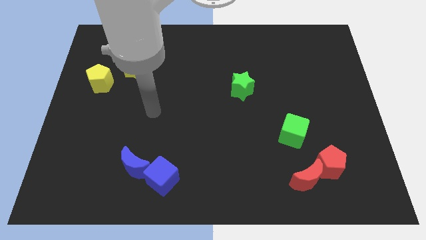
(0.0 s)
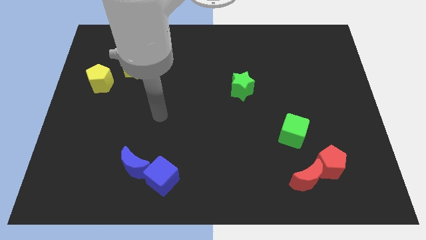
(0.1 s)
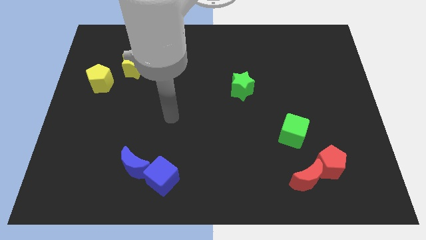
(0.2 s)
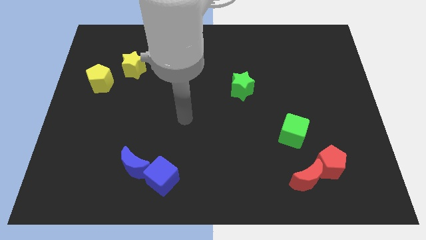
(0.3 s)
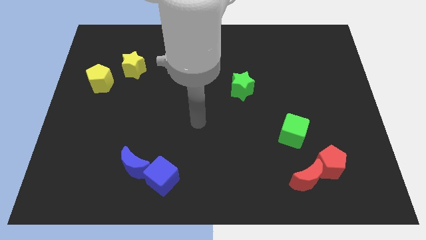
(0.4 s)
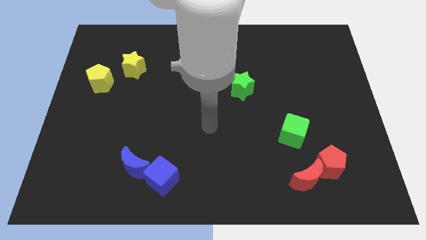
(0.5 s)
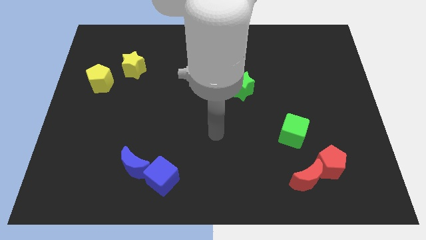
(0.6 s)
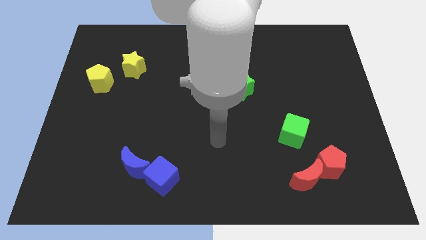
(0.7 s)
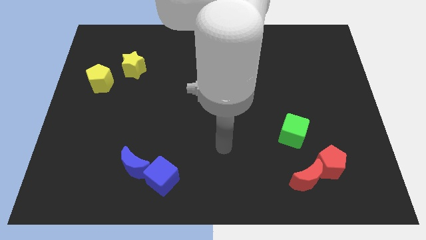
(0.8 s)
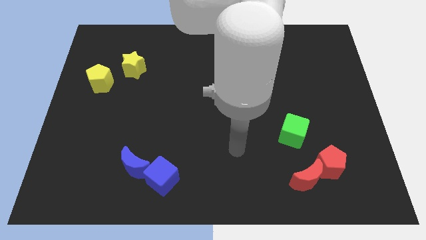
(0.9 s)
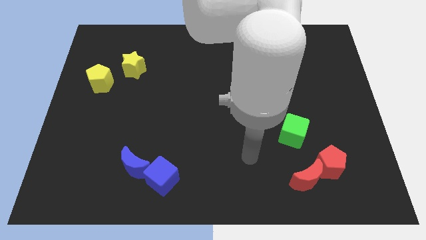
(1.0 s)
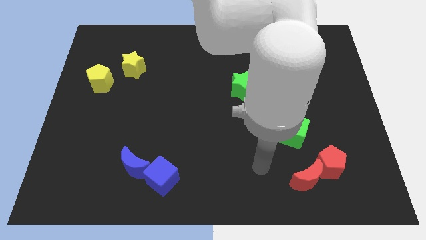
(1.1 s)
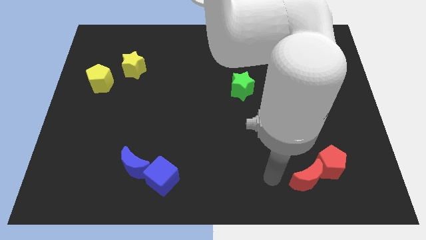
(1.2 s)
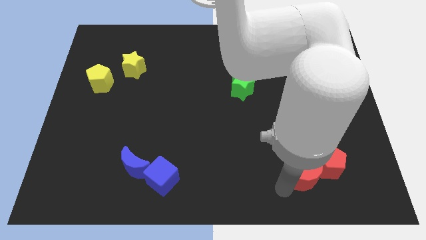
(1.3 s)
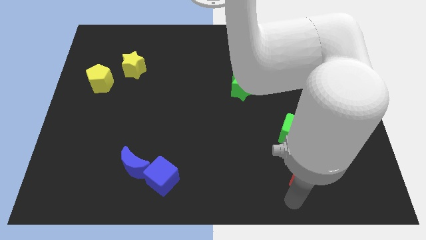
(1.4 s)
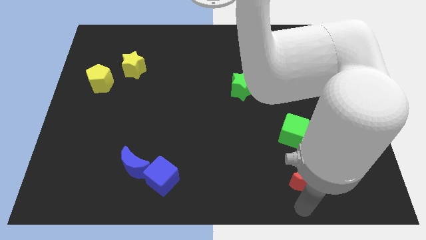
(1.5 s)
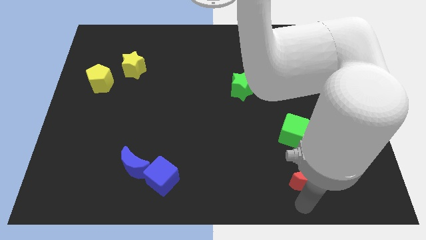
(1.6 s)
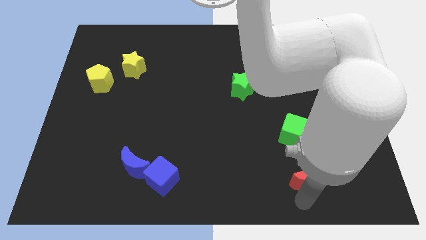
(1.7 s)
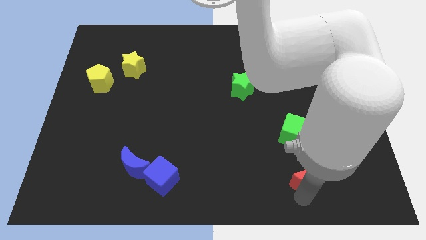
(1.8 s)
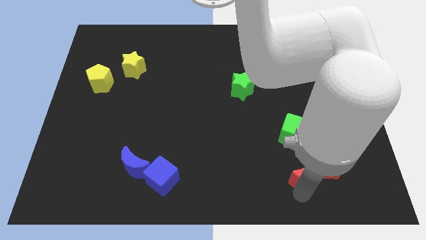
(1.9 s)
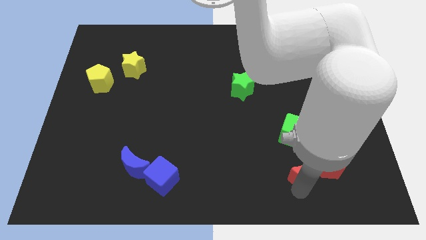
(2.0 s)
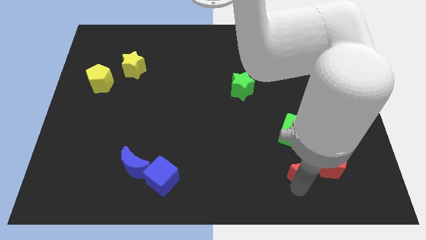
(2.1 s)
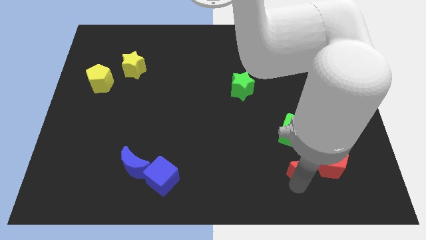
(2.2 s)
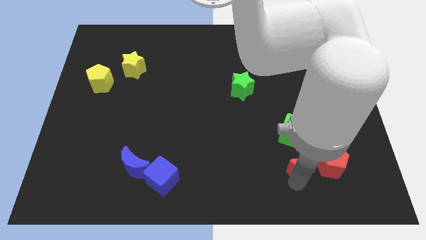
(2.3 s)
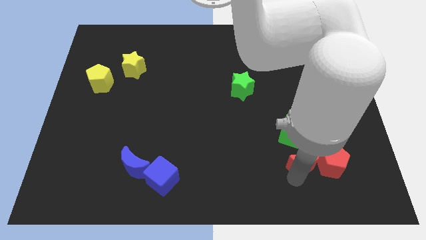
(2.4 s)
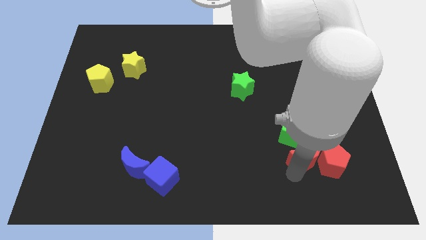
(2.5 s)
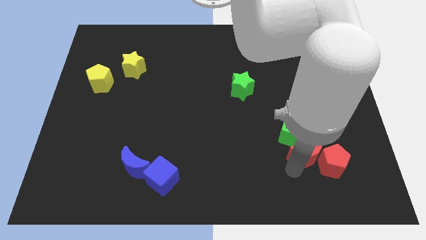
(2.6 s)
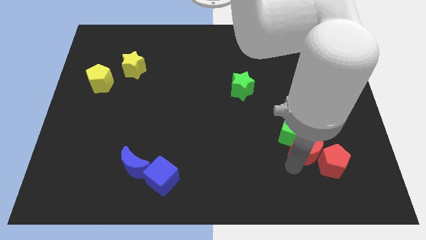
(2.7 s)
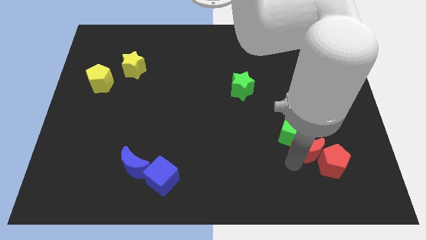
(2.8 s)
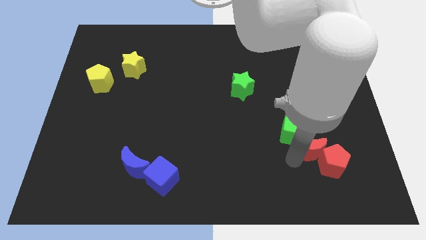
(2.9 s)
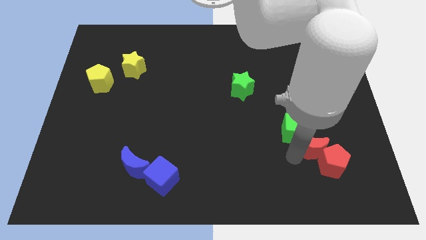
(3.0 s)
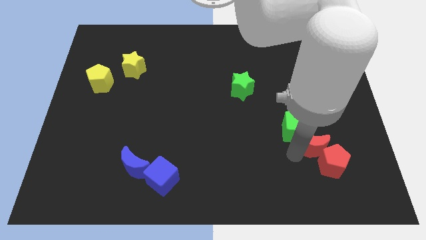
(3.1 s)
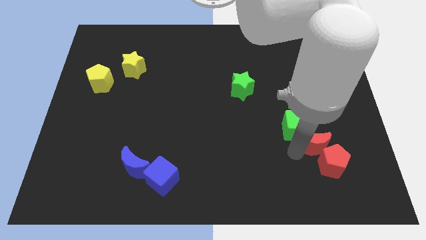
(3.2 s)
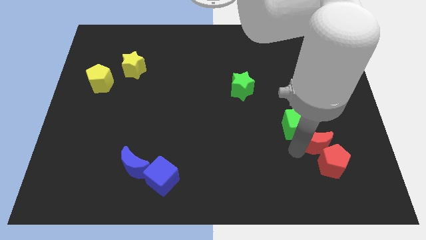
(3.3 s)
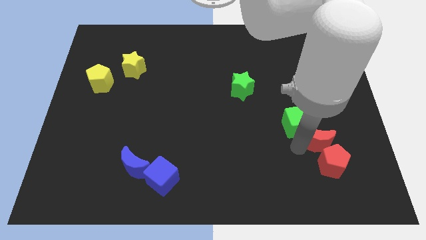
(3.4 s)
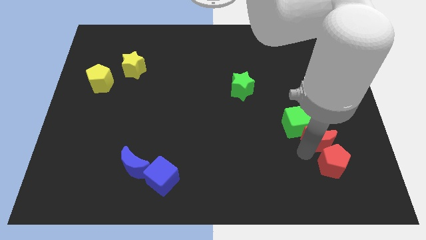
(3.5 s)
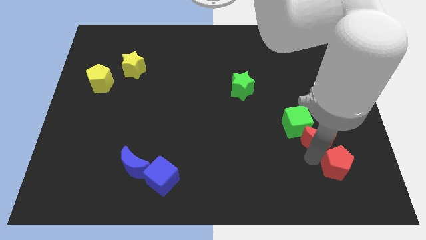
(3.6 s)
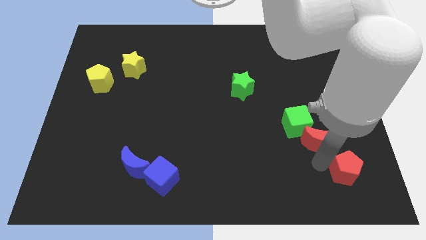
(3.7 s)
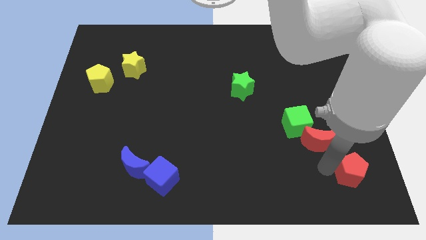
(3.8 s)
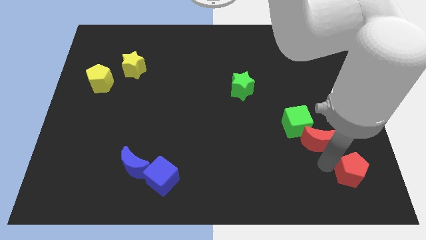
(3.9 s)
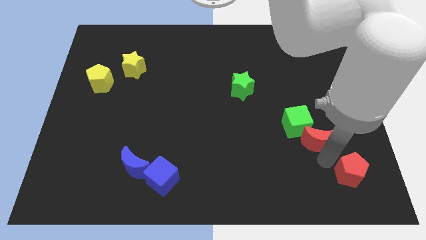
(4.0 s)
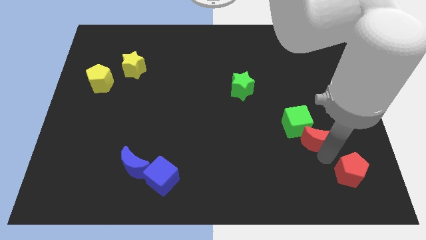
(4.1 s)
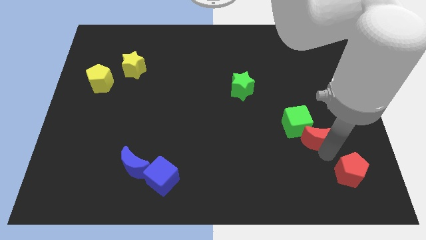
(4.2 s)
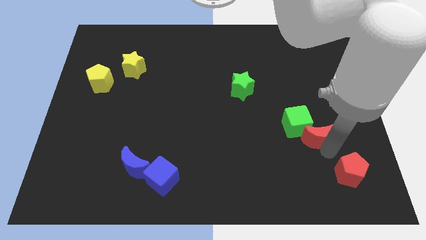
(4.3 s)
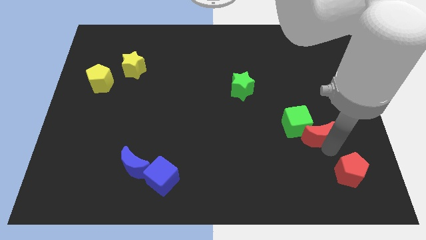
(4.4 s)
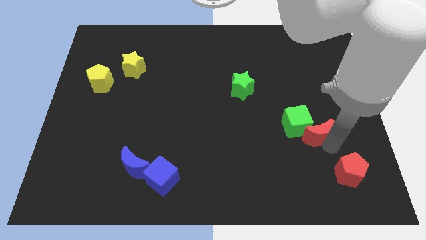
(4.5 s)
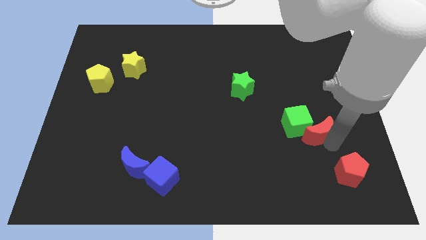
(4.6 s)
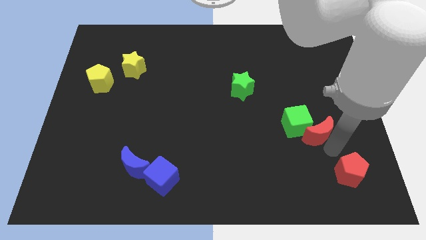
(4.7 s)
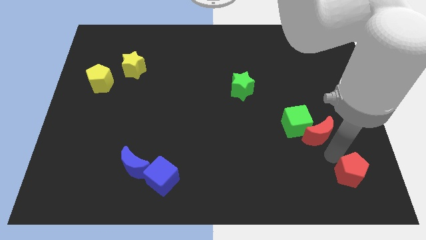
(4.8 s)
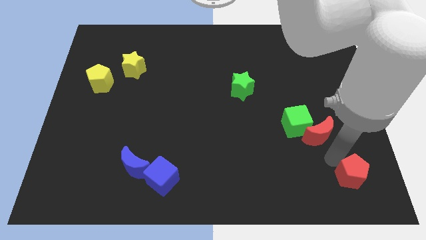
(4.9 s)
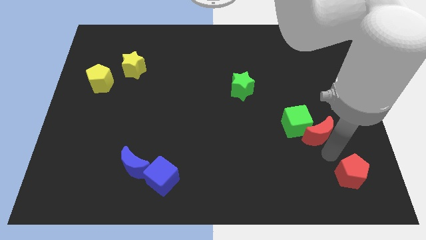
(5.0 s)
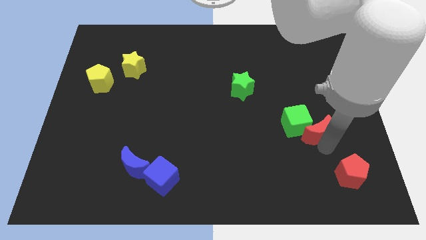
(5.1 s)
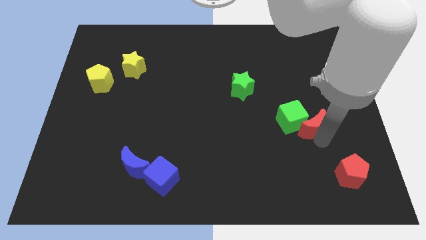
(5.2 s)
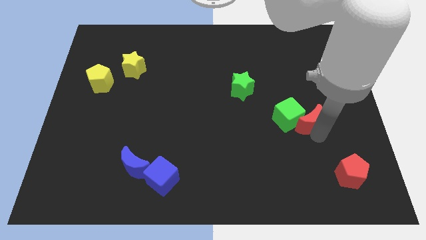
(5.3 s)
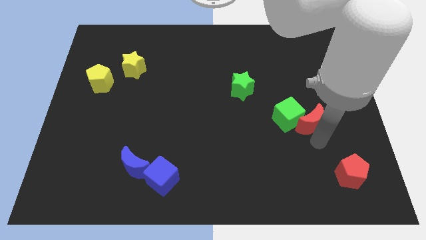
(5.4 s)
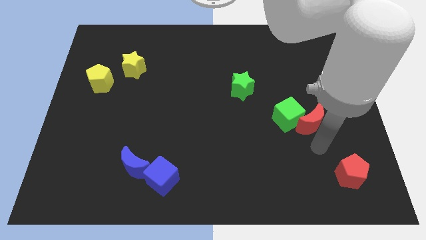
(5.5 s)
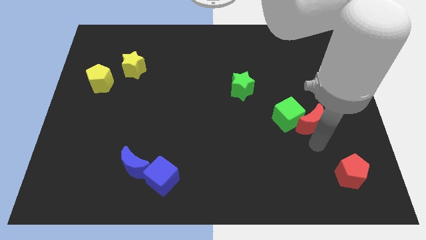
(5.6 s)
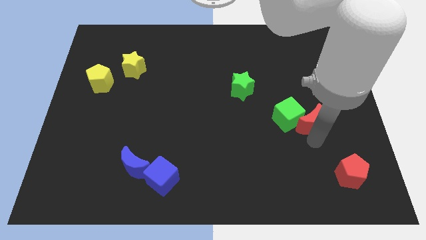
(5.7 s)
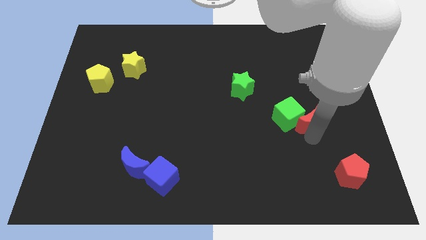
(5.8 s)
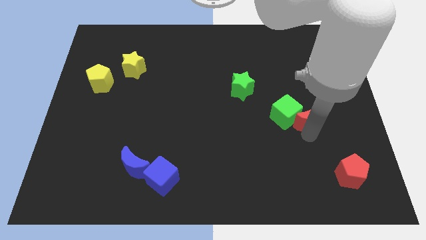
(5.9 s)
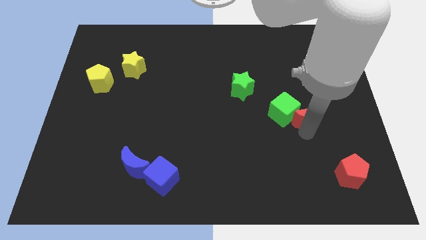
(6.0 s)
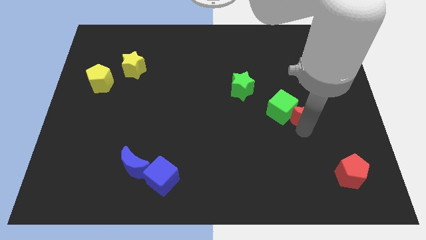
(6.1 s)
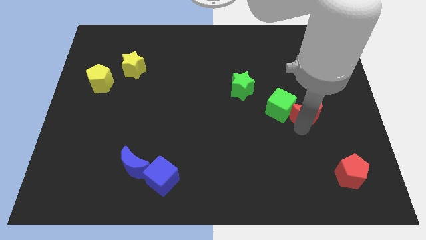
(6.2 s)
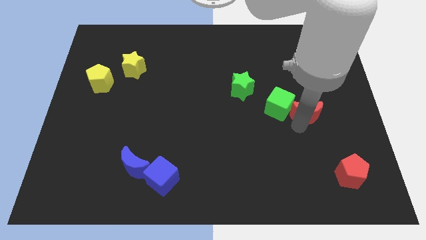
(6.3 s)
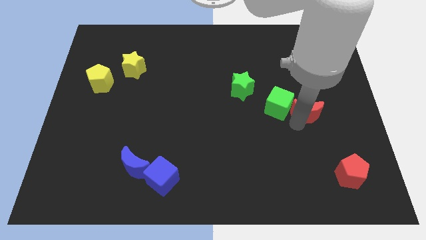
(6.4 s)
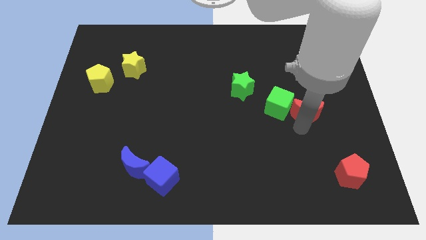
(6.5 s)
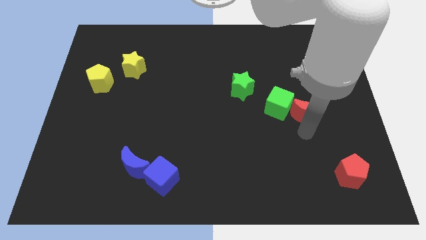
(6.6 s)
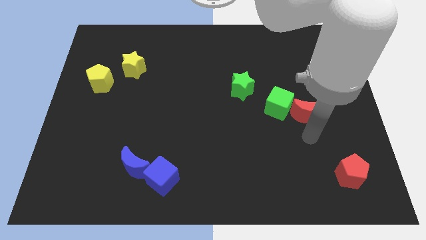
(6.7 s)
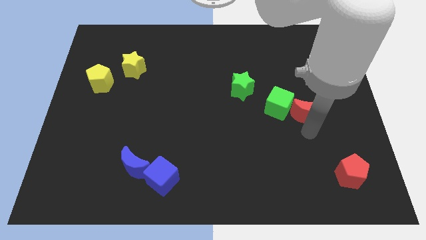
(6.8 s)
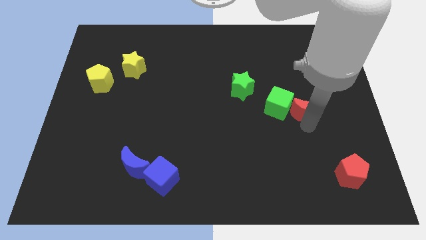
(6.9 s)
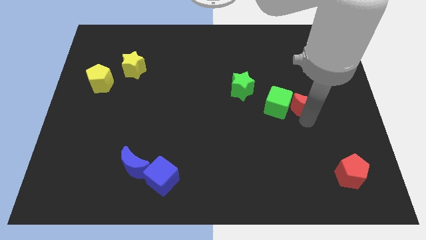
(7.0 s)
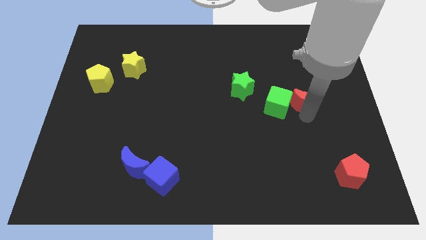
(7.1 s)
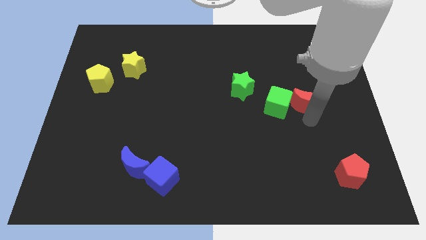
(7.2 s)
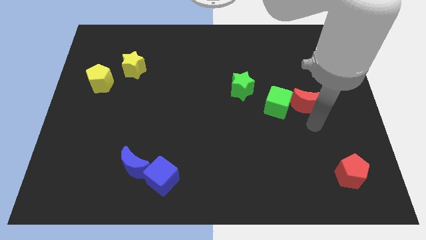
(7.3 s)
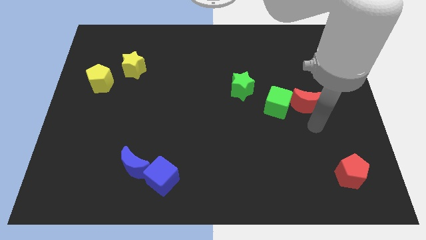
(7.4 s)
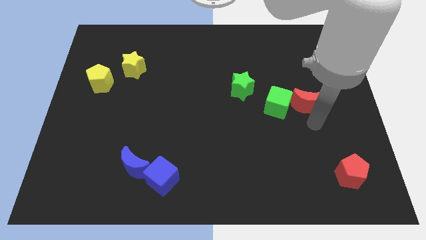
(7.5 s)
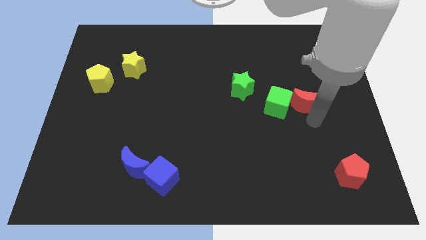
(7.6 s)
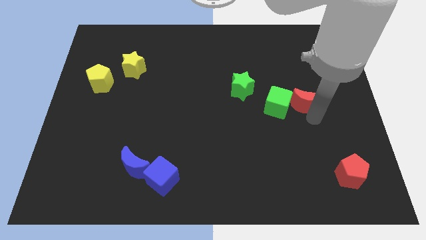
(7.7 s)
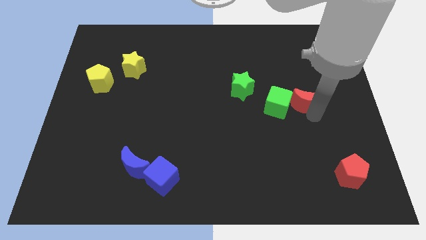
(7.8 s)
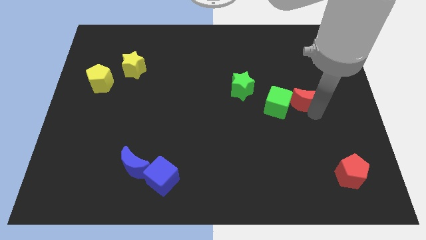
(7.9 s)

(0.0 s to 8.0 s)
push the red moon upwards

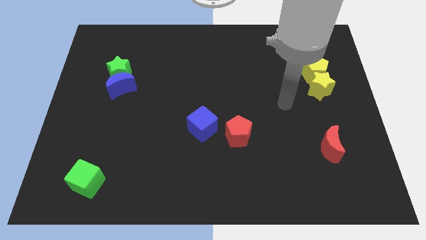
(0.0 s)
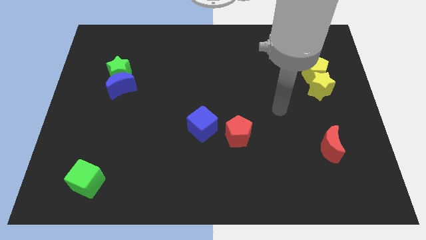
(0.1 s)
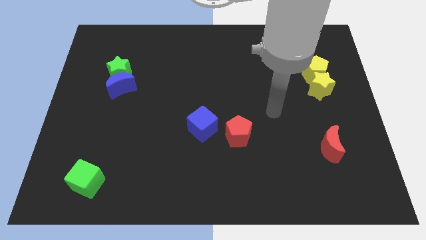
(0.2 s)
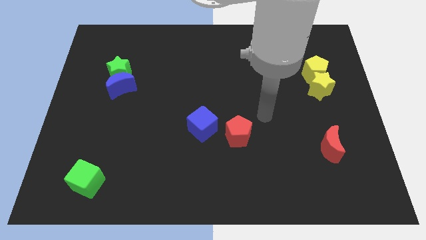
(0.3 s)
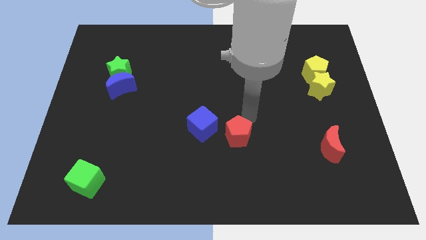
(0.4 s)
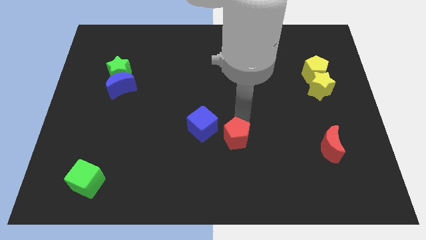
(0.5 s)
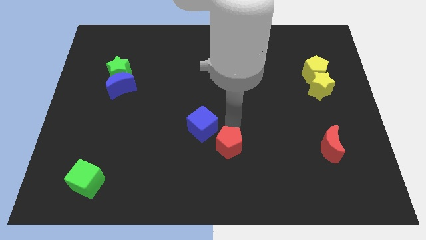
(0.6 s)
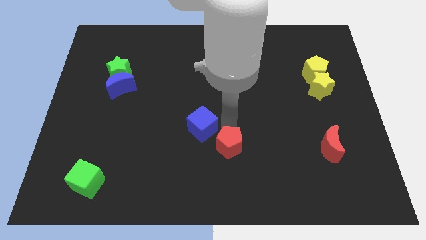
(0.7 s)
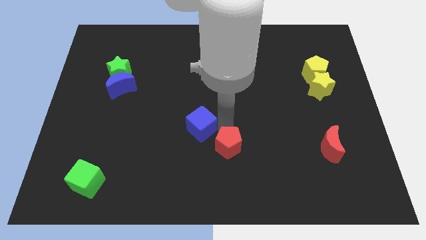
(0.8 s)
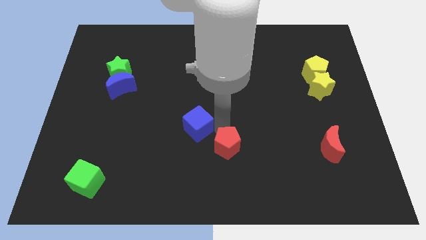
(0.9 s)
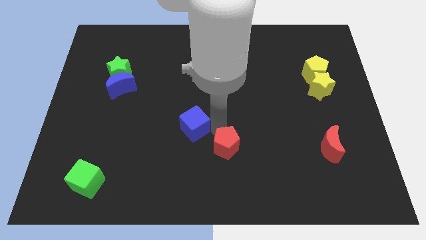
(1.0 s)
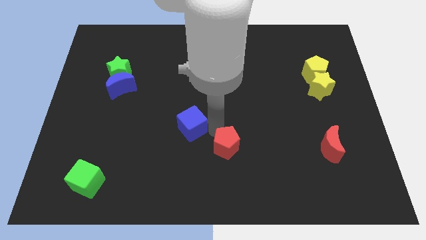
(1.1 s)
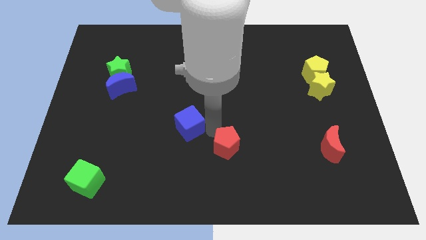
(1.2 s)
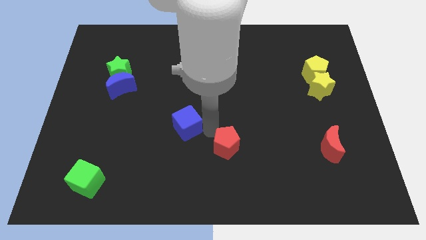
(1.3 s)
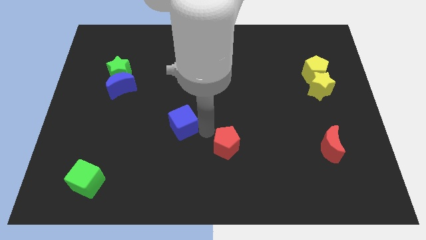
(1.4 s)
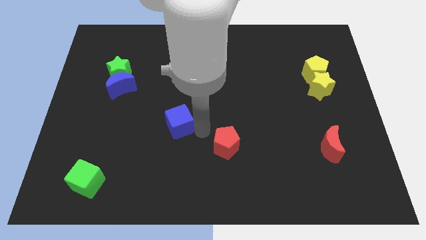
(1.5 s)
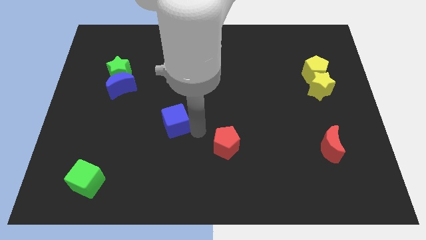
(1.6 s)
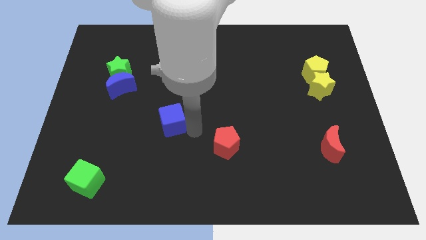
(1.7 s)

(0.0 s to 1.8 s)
slightly move the blue cube left
